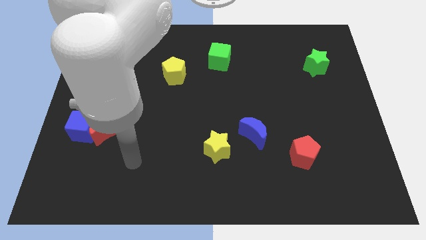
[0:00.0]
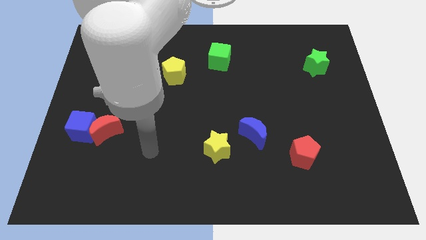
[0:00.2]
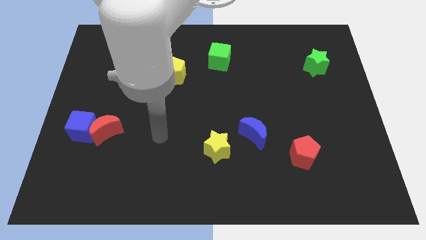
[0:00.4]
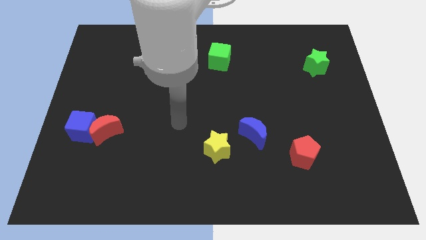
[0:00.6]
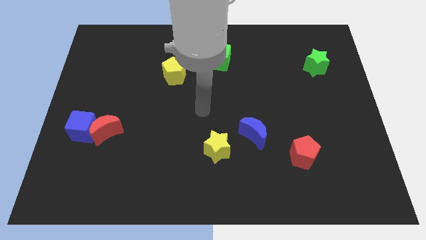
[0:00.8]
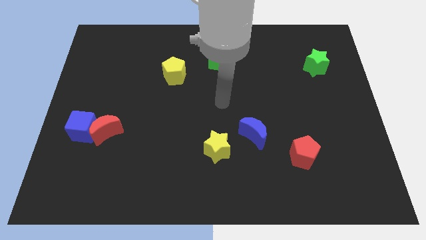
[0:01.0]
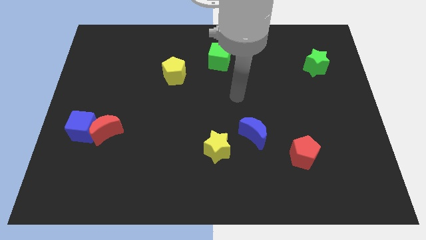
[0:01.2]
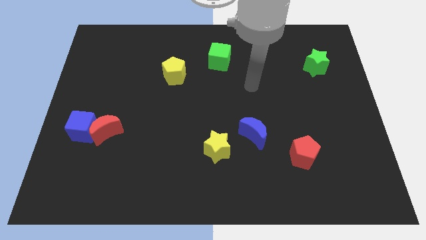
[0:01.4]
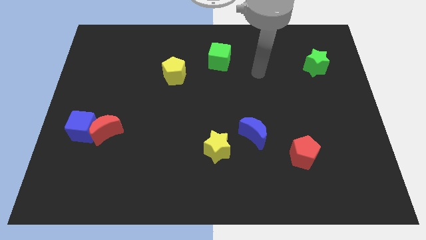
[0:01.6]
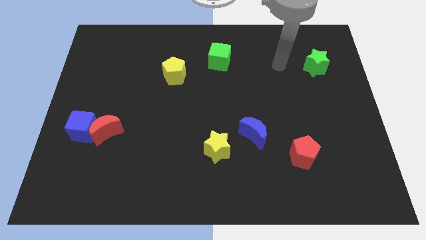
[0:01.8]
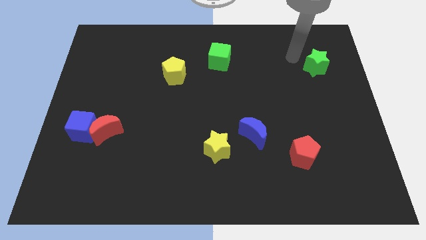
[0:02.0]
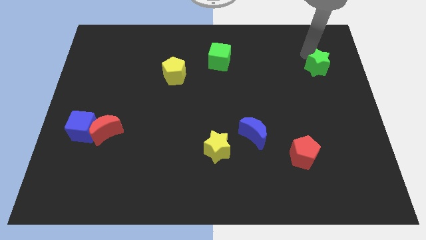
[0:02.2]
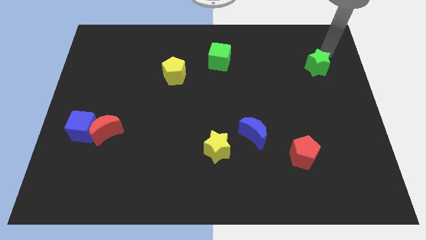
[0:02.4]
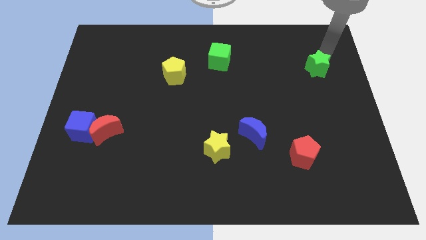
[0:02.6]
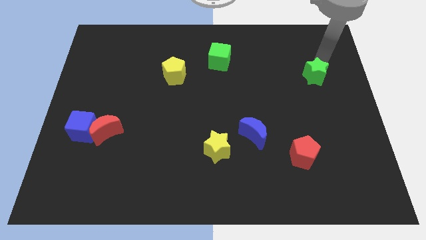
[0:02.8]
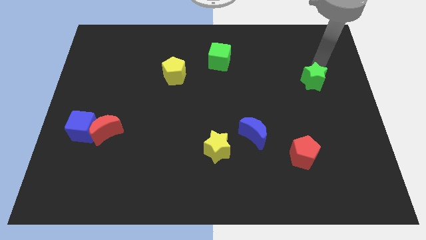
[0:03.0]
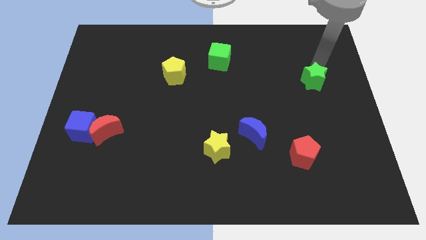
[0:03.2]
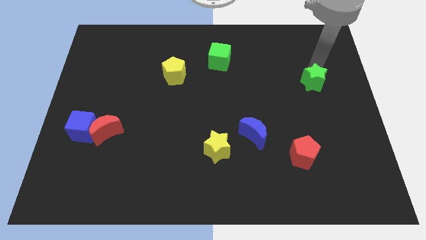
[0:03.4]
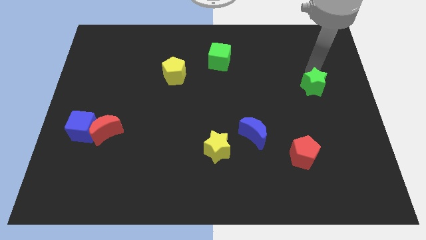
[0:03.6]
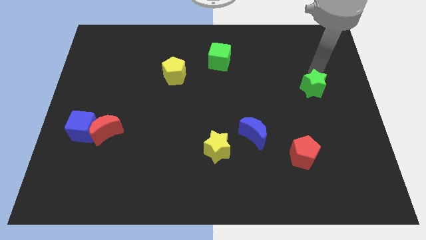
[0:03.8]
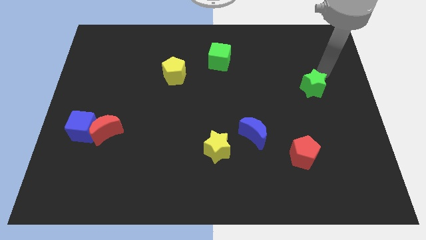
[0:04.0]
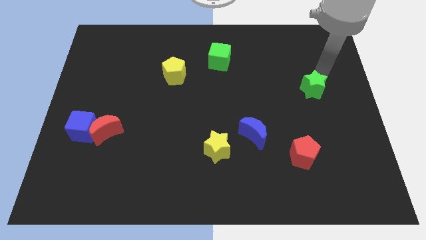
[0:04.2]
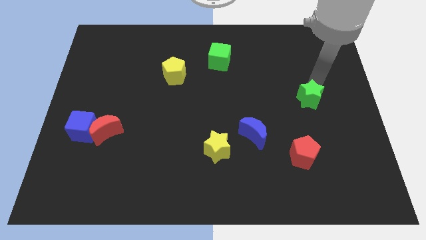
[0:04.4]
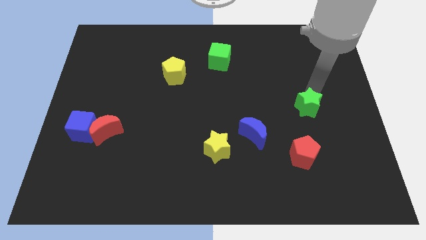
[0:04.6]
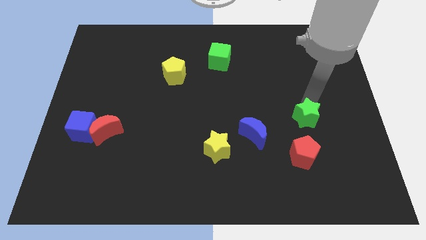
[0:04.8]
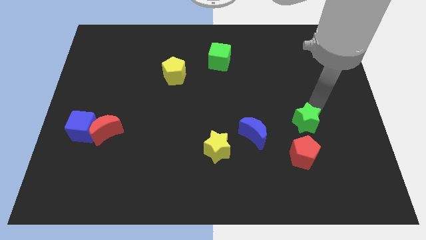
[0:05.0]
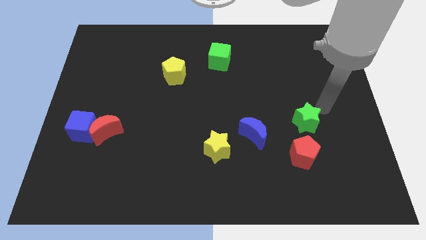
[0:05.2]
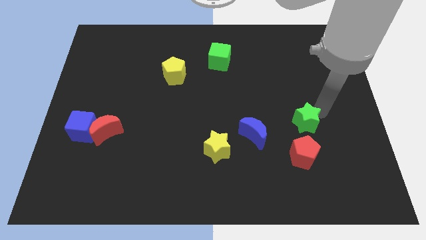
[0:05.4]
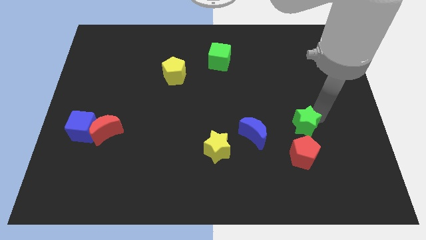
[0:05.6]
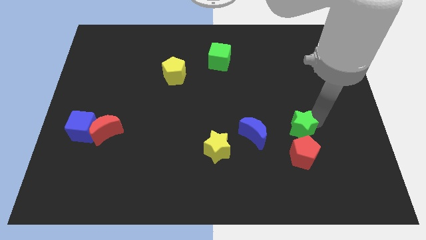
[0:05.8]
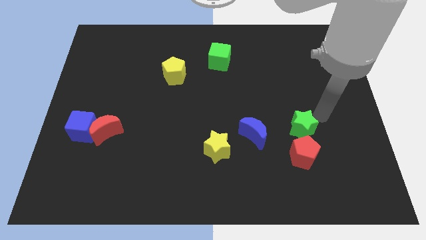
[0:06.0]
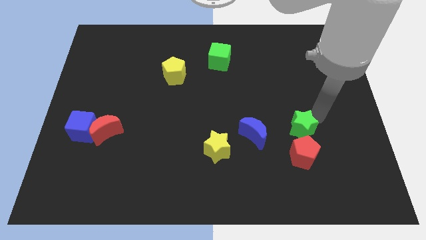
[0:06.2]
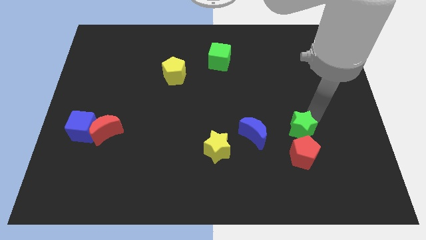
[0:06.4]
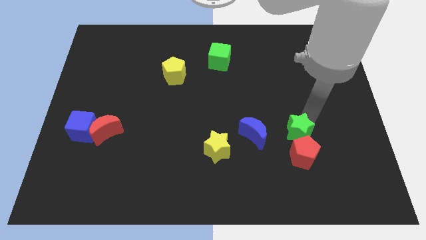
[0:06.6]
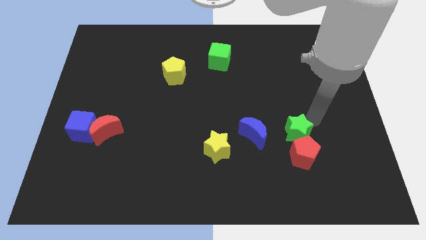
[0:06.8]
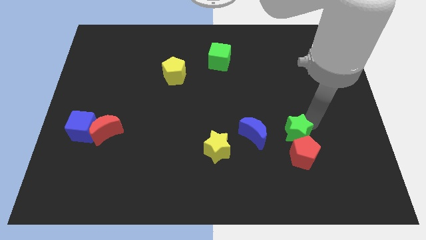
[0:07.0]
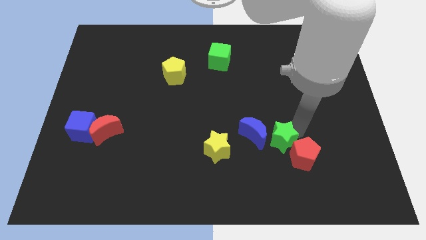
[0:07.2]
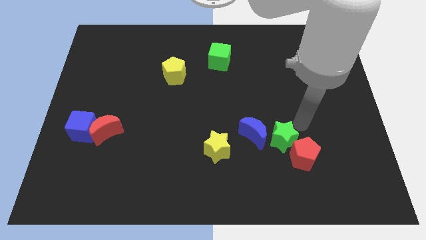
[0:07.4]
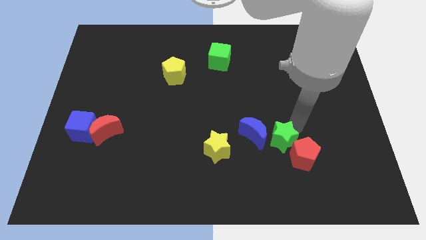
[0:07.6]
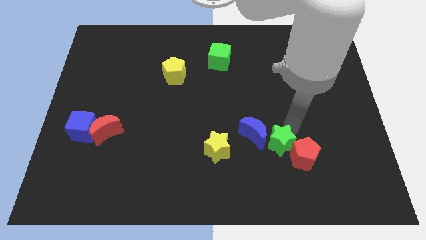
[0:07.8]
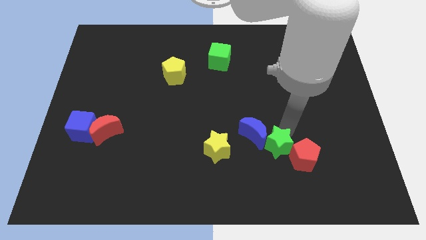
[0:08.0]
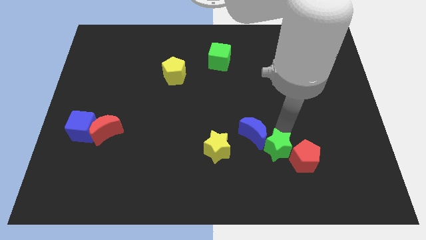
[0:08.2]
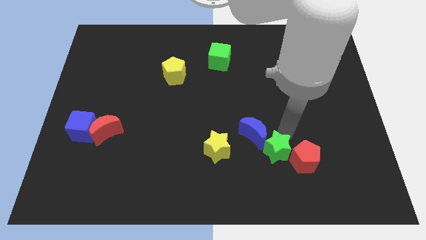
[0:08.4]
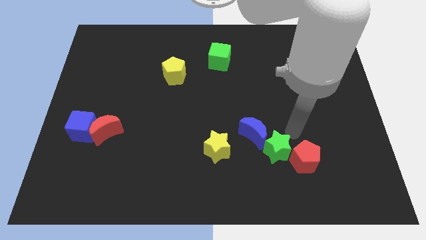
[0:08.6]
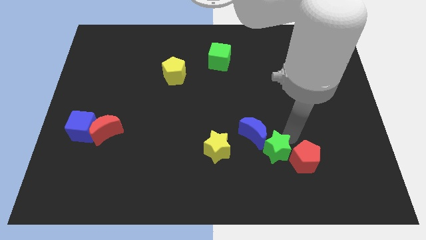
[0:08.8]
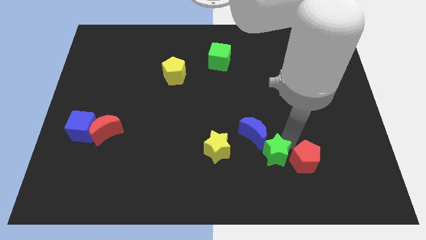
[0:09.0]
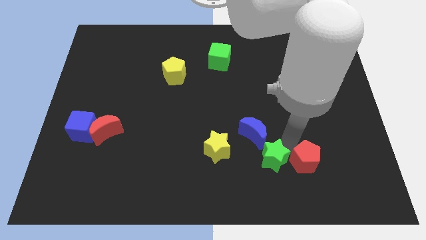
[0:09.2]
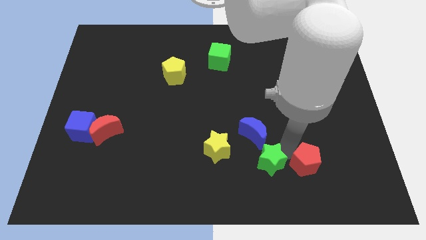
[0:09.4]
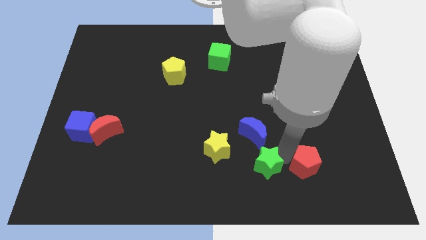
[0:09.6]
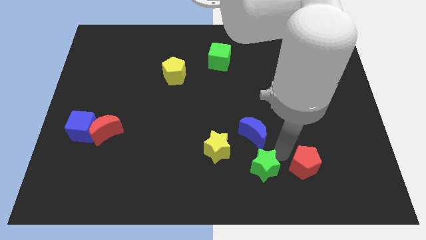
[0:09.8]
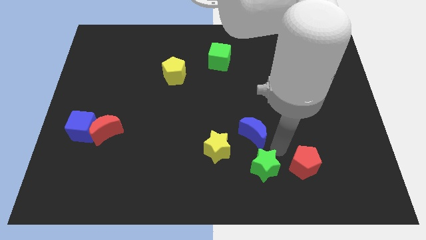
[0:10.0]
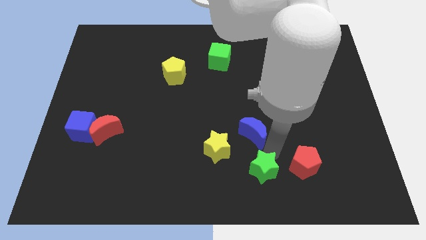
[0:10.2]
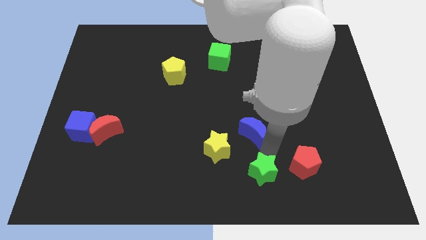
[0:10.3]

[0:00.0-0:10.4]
move the green star to the bottom side
